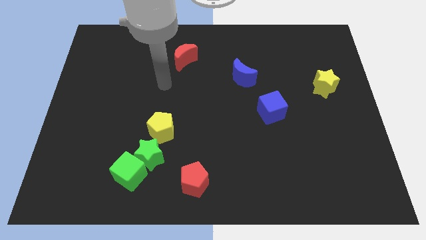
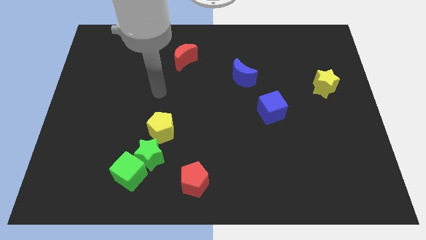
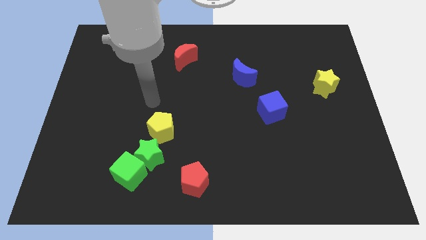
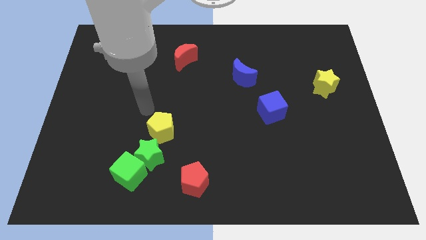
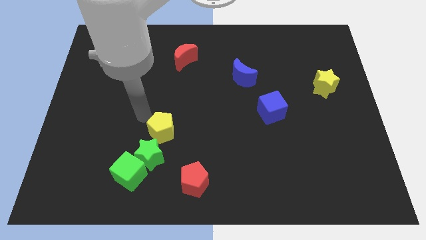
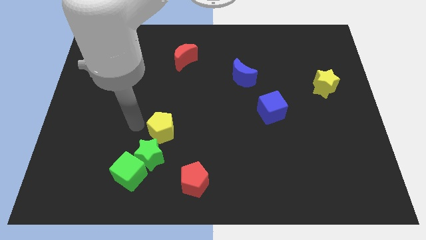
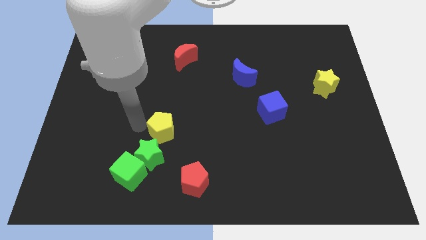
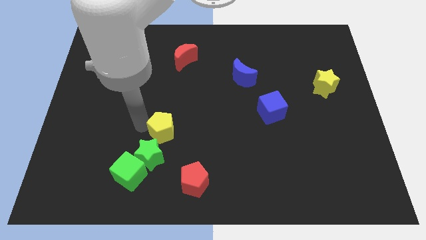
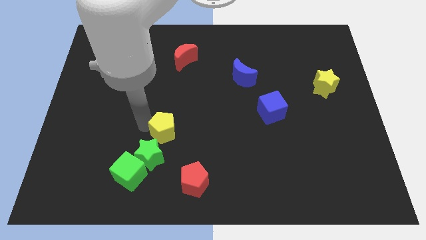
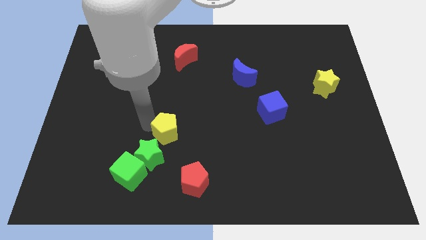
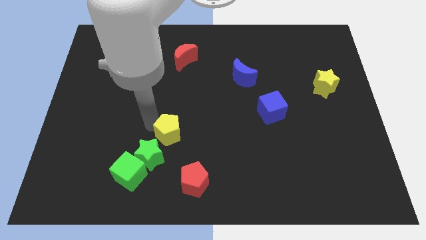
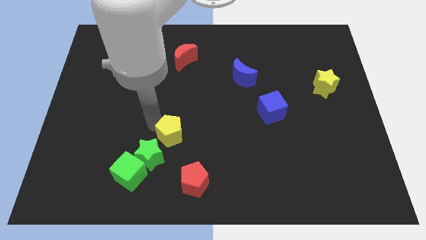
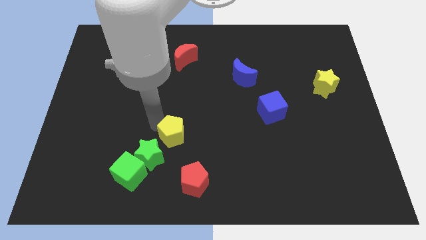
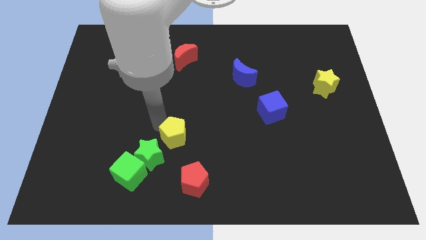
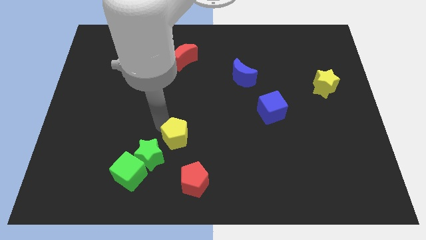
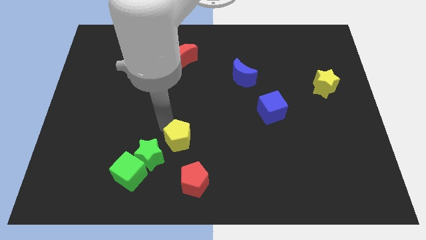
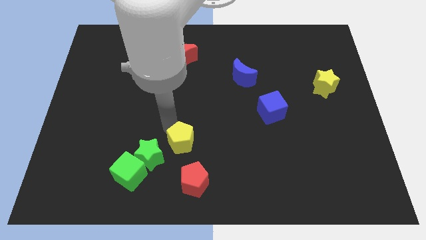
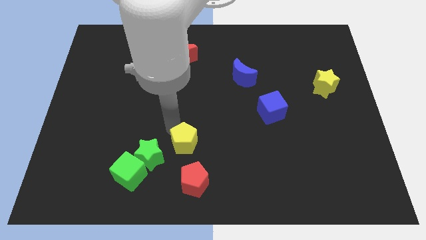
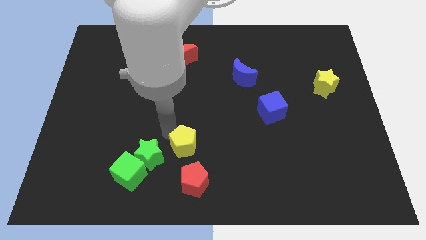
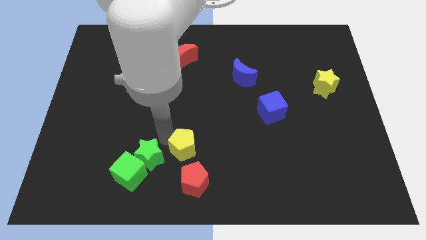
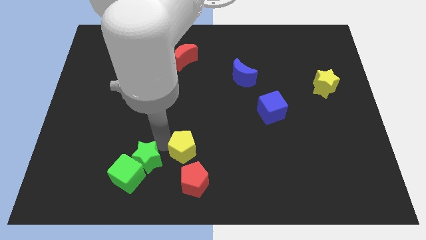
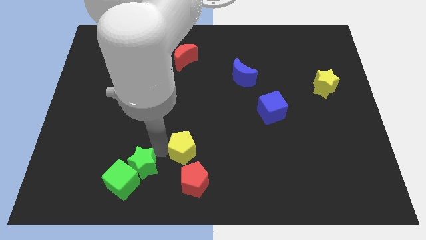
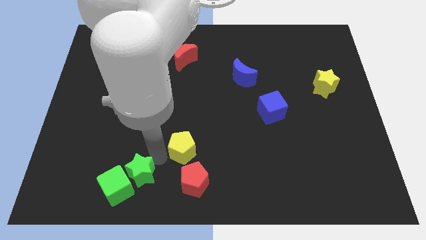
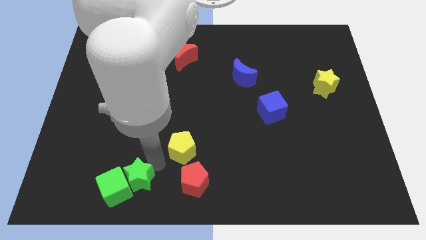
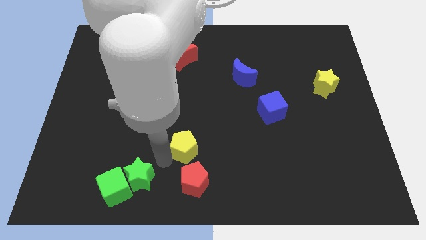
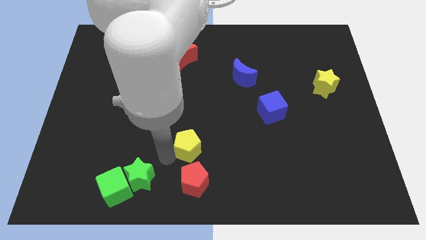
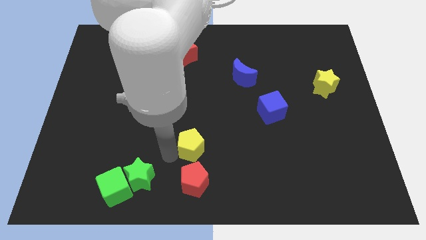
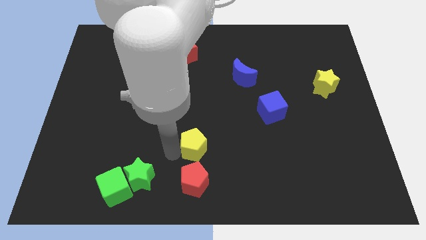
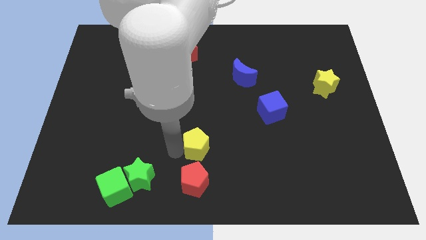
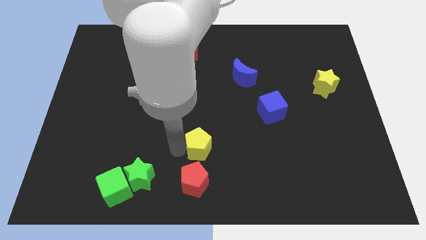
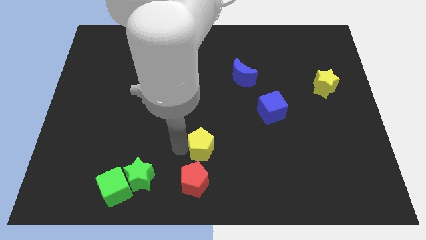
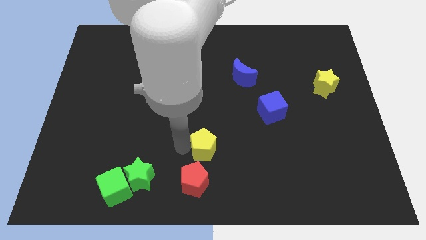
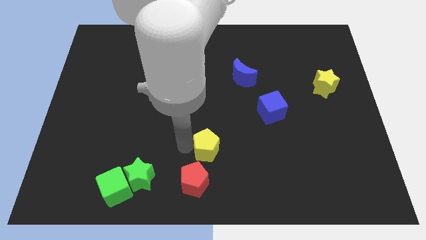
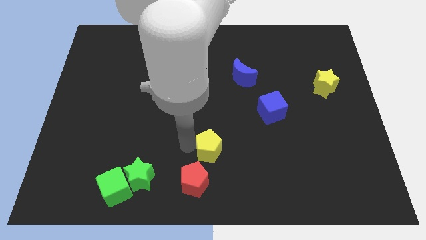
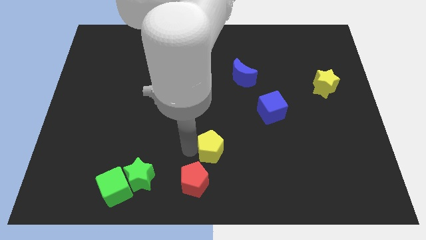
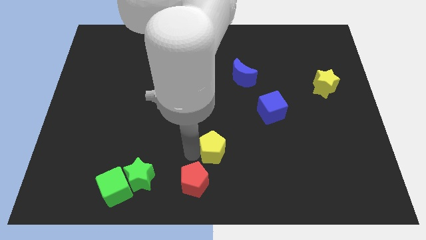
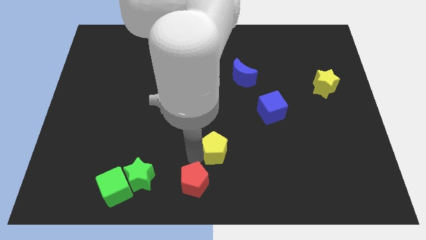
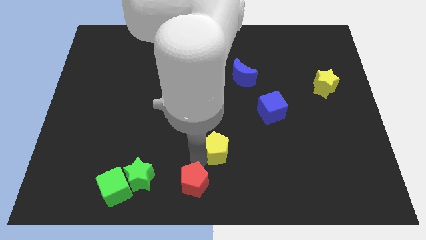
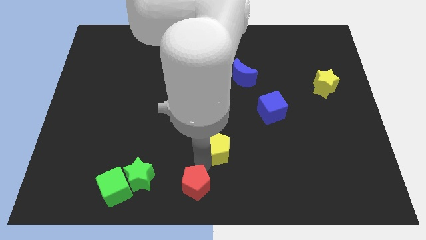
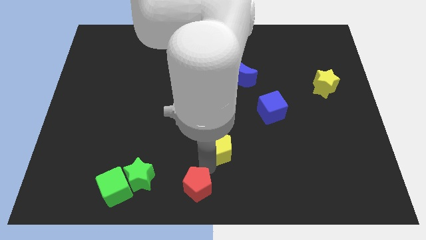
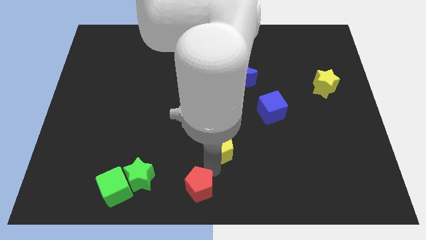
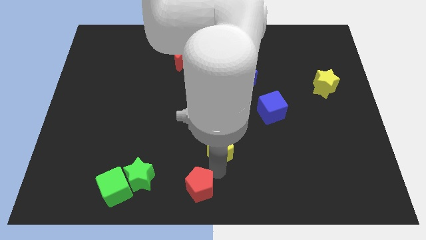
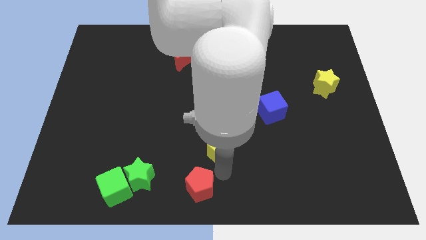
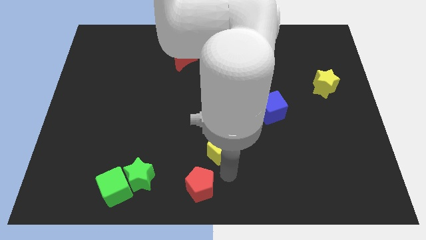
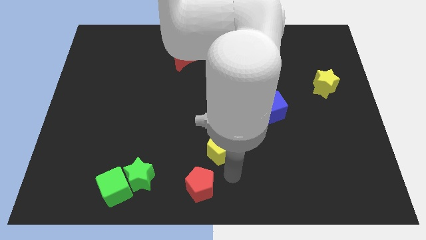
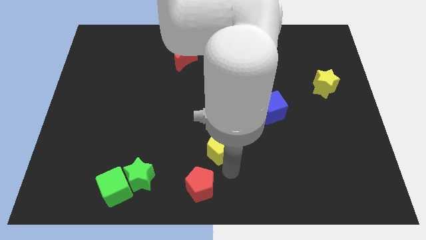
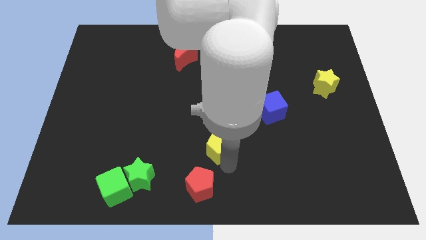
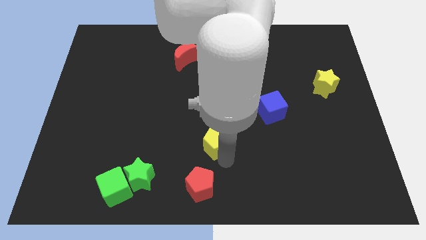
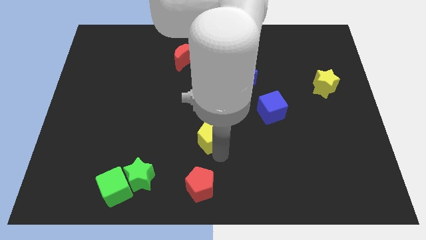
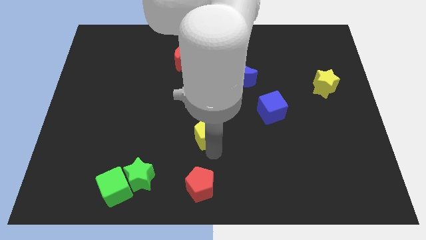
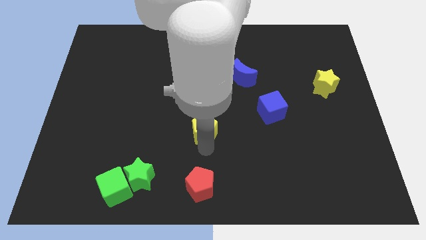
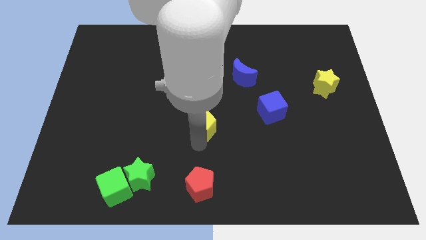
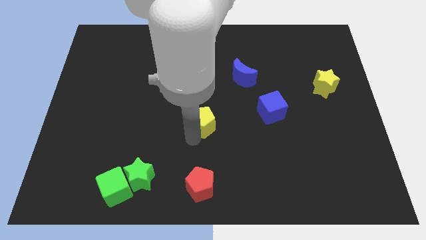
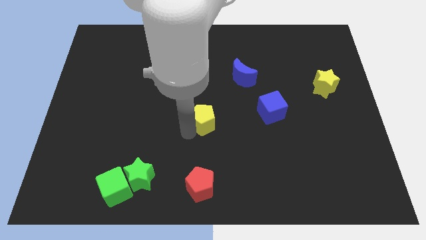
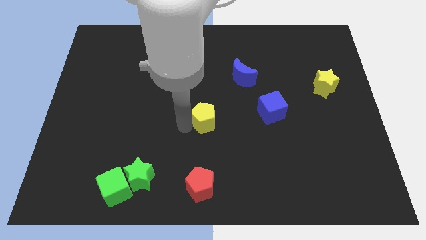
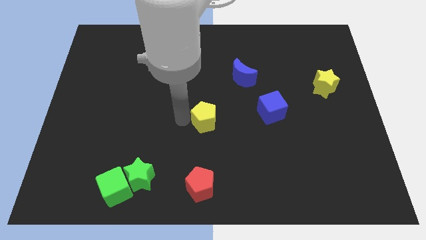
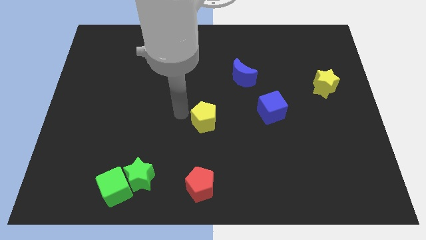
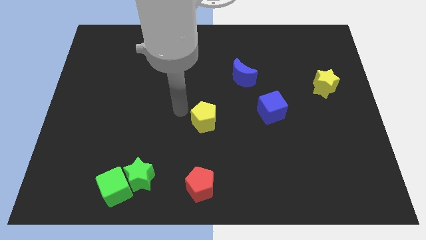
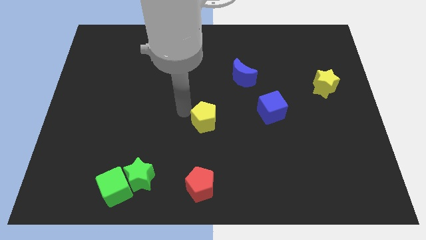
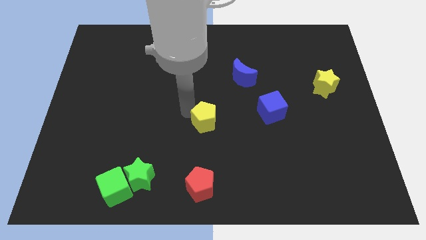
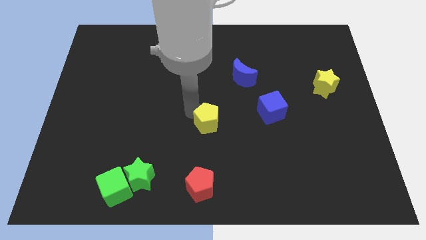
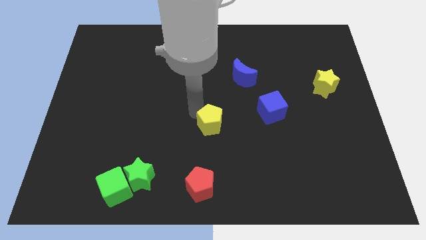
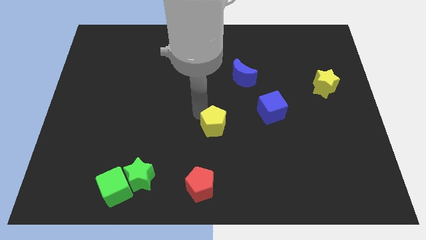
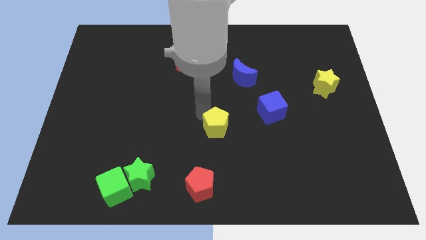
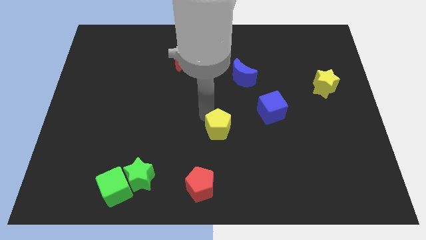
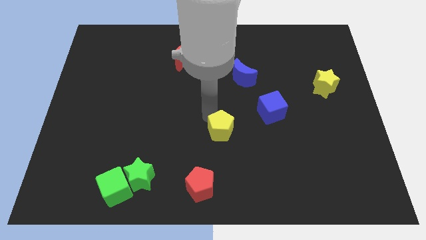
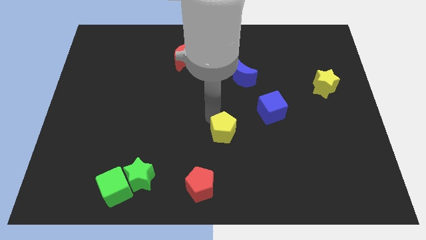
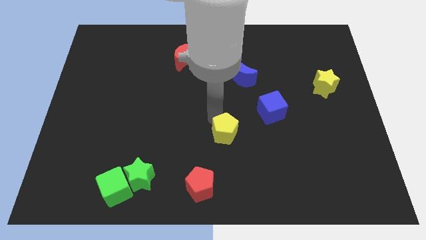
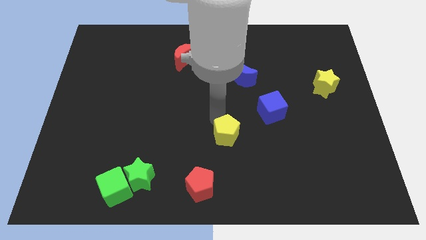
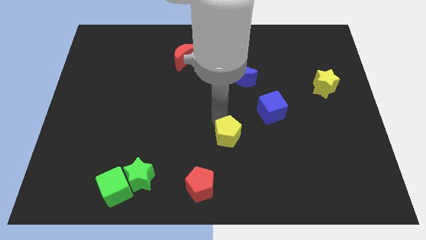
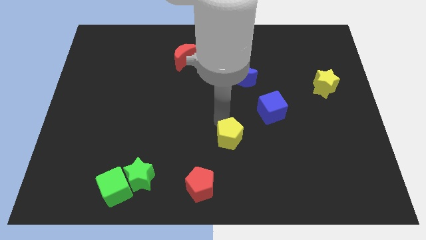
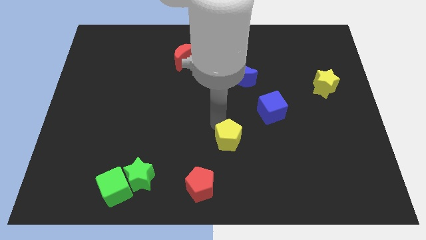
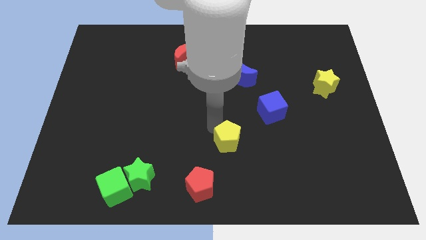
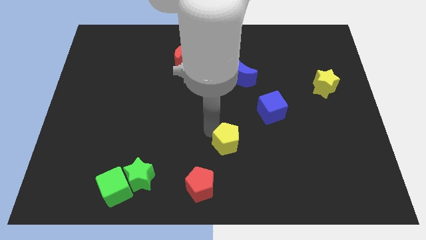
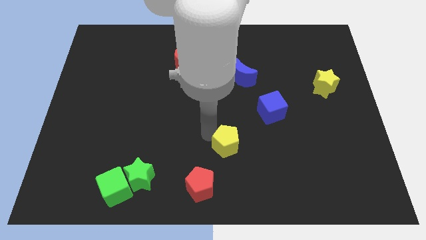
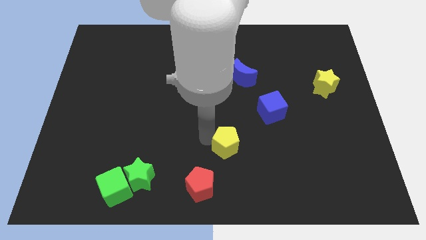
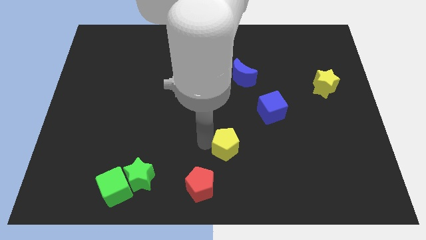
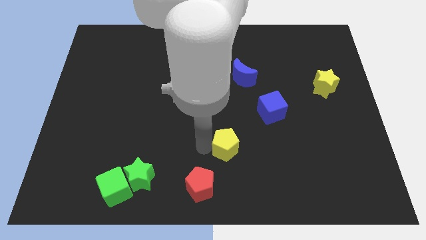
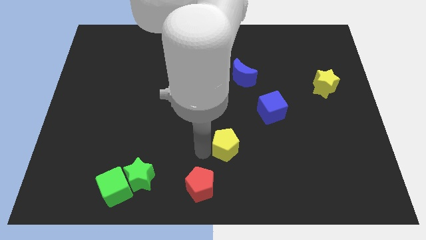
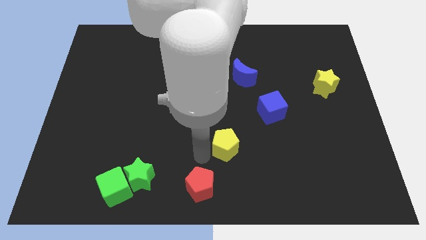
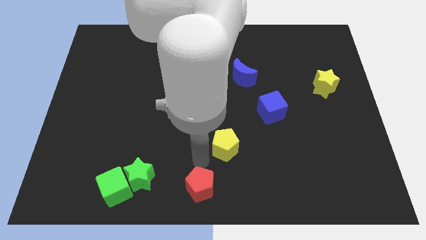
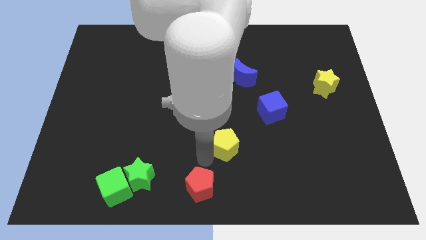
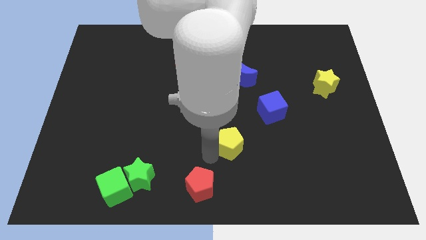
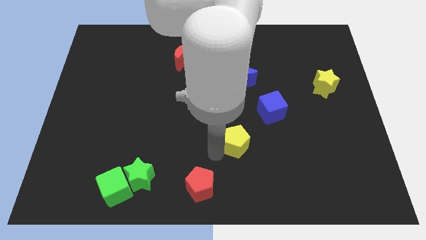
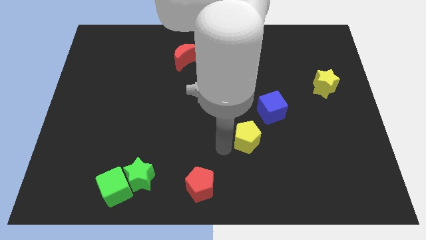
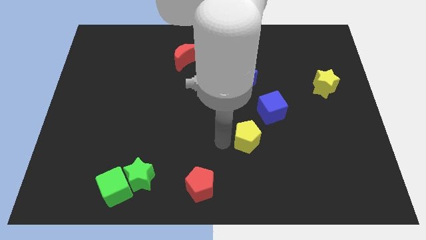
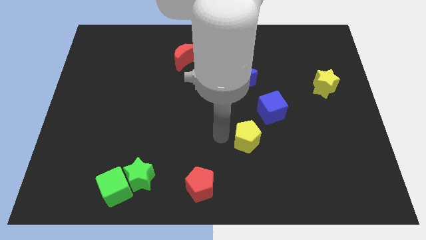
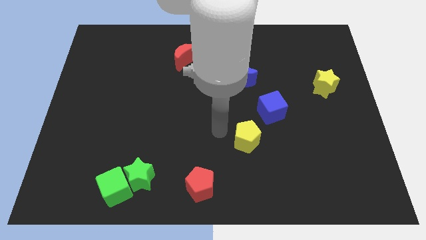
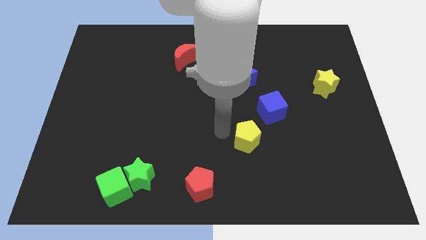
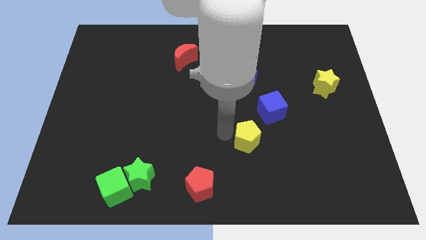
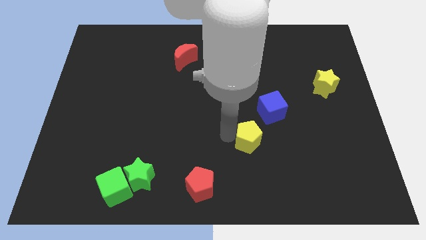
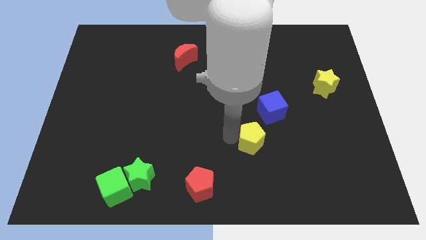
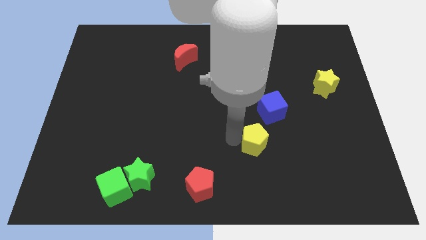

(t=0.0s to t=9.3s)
push the yellow pentagon to the bottom side of the blue cube
